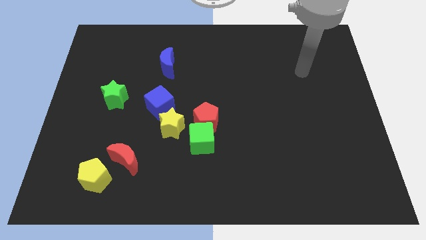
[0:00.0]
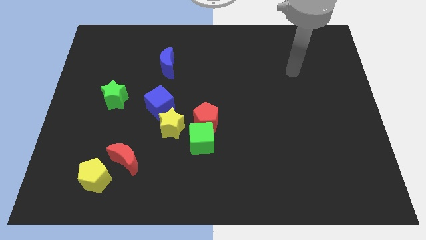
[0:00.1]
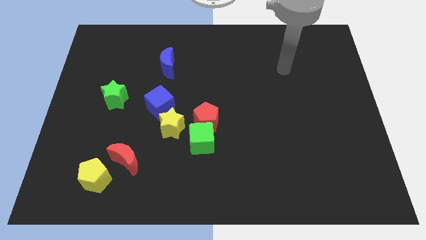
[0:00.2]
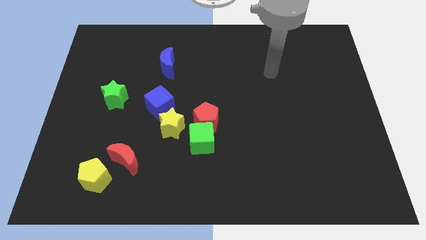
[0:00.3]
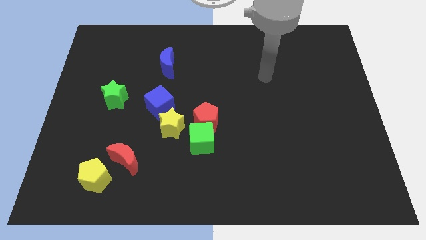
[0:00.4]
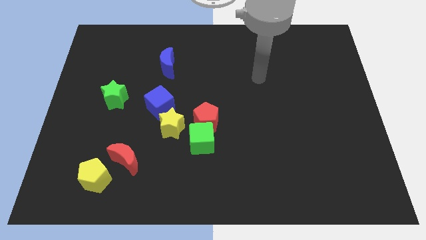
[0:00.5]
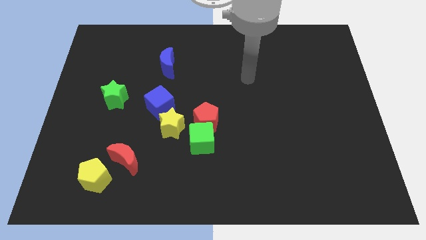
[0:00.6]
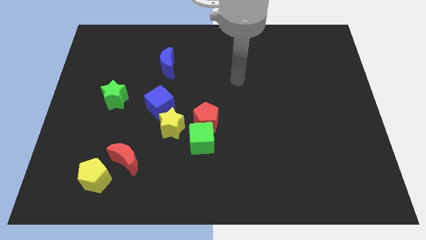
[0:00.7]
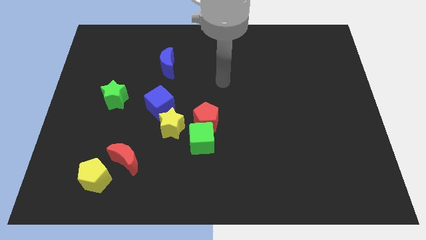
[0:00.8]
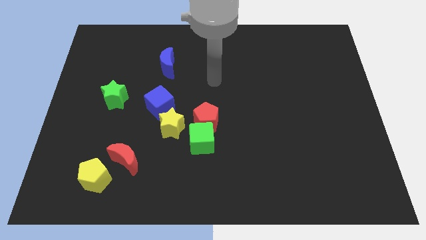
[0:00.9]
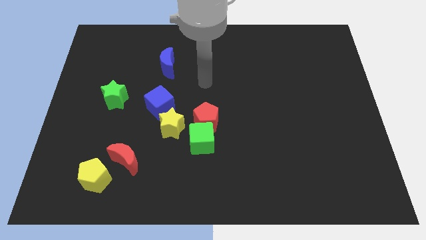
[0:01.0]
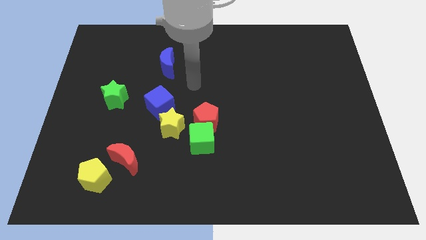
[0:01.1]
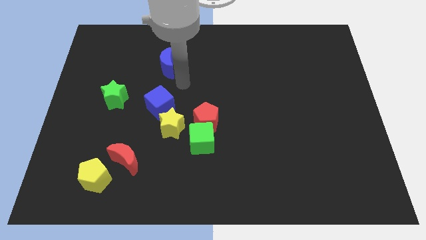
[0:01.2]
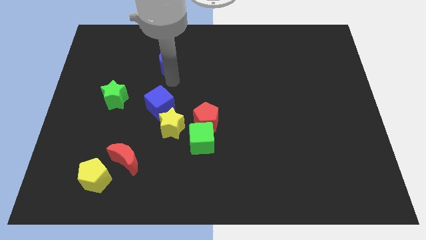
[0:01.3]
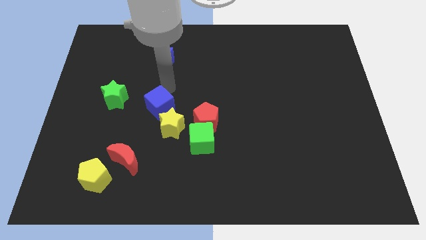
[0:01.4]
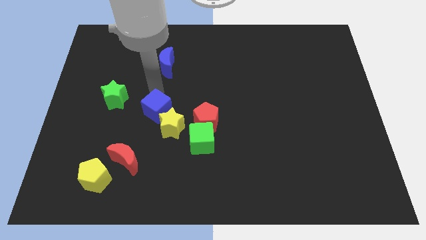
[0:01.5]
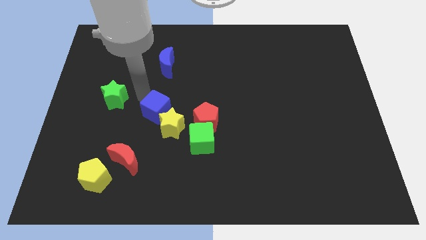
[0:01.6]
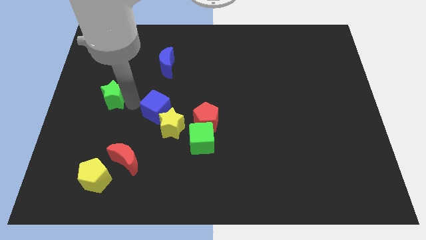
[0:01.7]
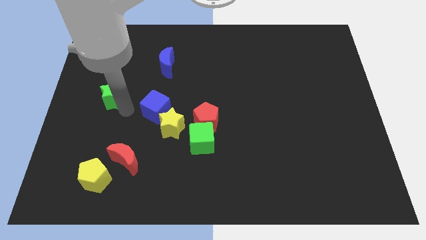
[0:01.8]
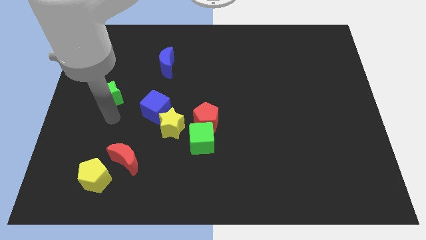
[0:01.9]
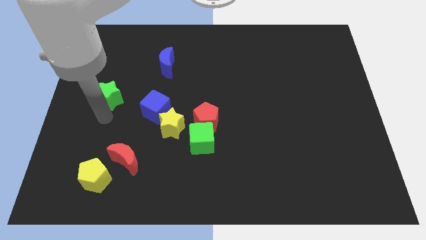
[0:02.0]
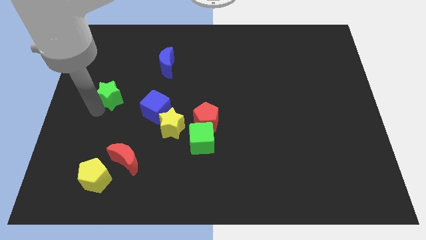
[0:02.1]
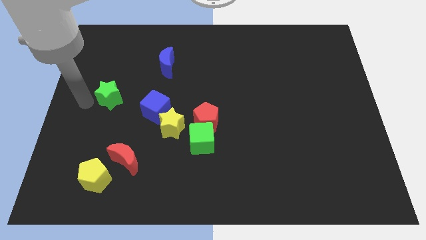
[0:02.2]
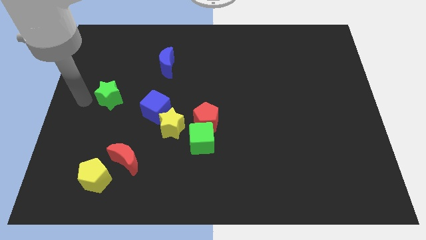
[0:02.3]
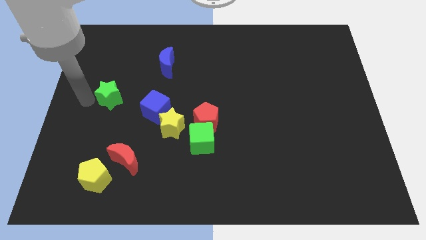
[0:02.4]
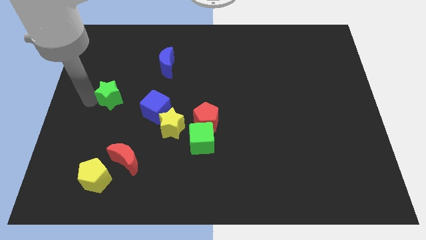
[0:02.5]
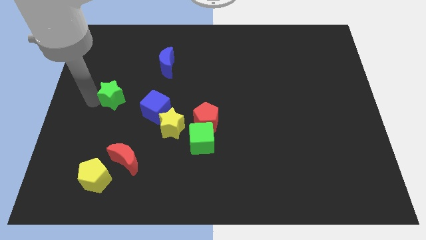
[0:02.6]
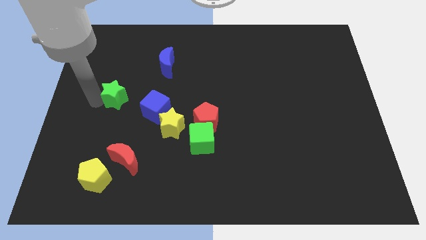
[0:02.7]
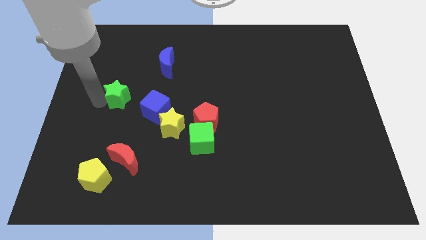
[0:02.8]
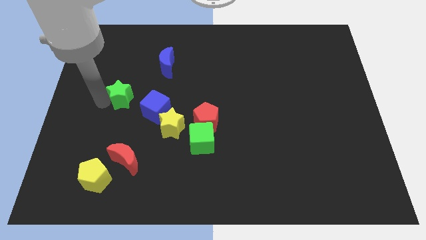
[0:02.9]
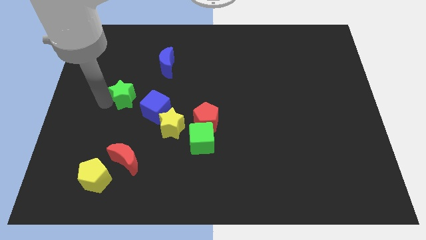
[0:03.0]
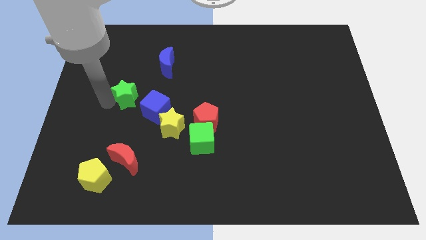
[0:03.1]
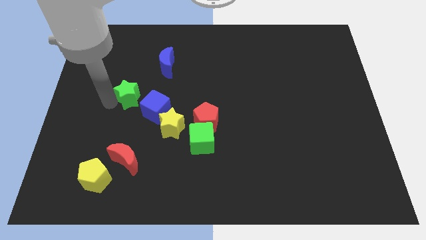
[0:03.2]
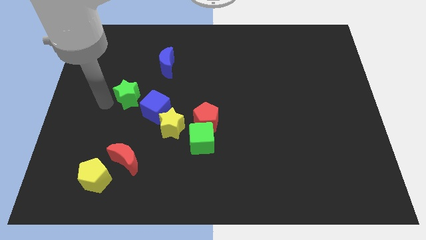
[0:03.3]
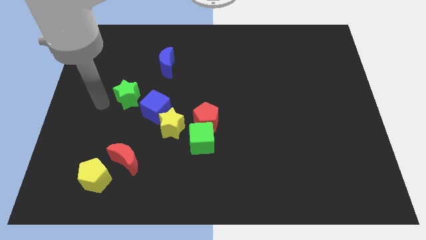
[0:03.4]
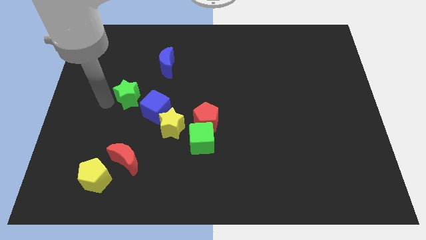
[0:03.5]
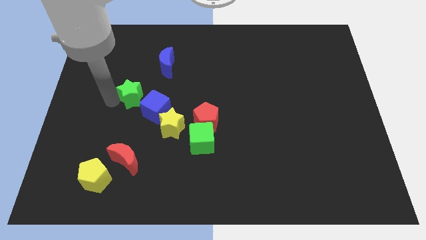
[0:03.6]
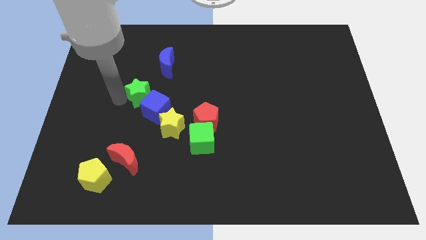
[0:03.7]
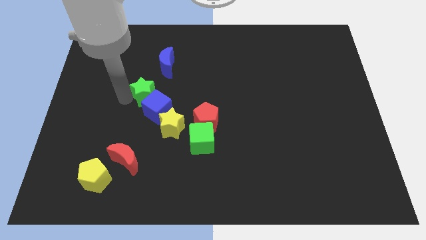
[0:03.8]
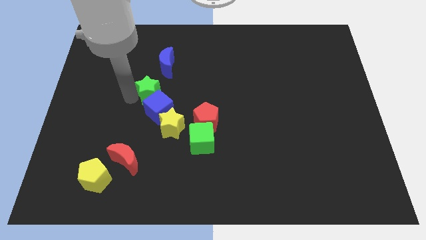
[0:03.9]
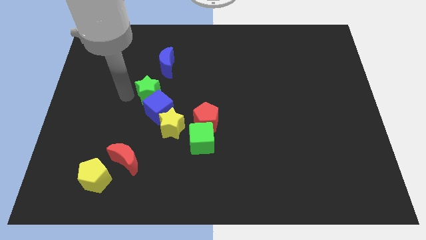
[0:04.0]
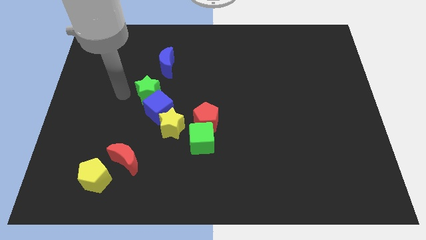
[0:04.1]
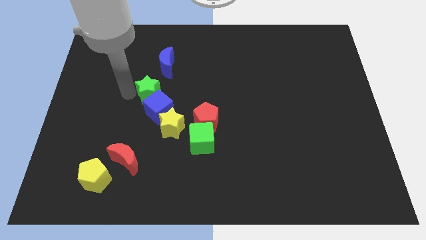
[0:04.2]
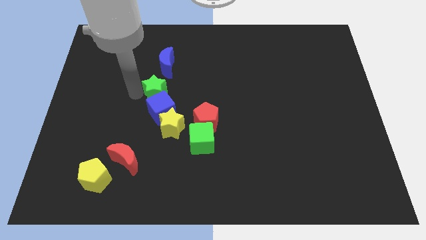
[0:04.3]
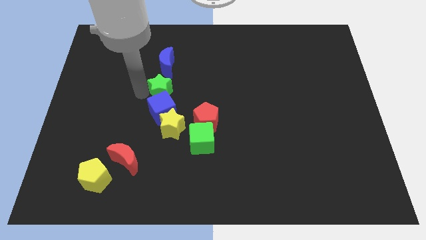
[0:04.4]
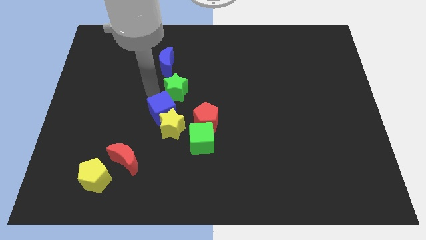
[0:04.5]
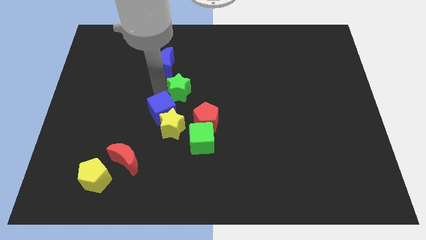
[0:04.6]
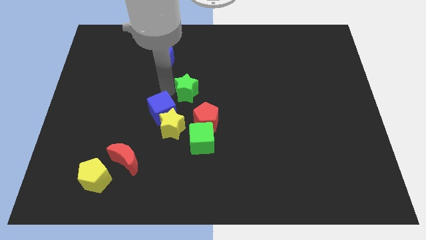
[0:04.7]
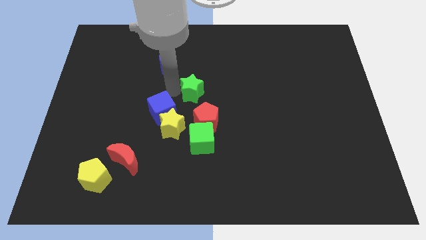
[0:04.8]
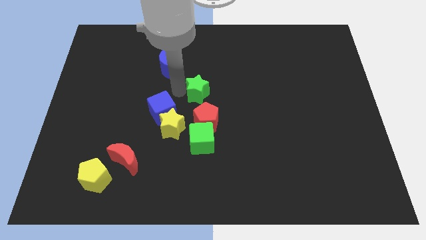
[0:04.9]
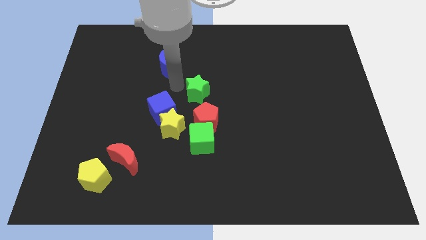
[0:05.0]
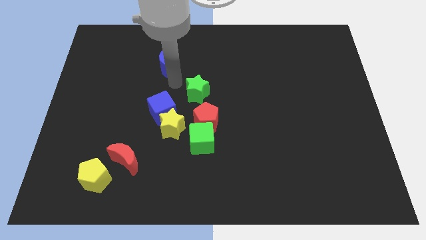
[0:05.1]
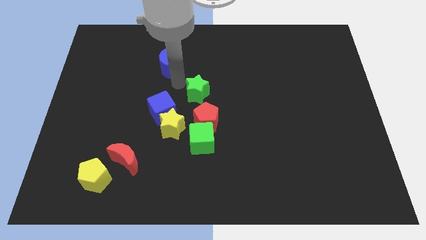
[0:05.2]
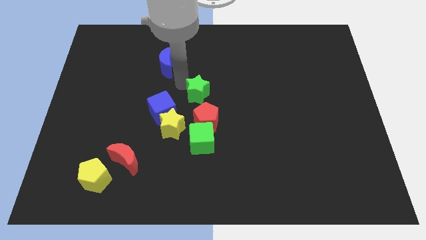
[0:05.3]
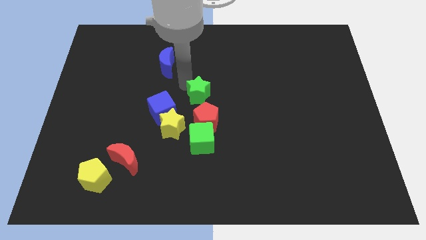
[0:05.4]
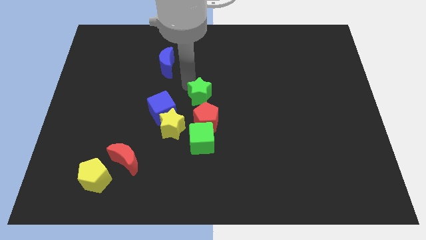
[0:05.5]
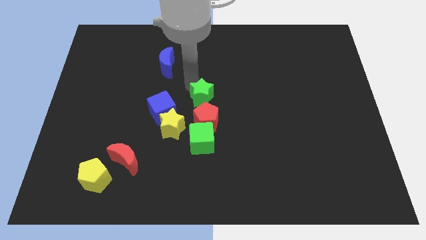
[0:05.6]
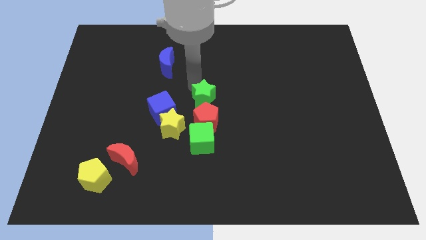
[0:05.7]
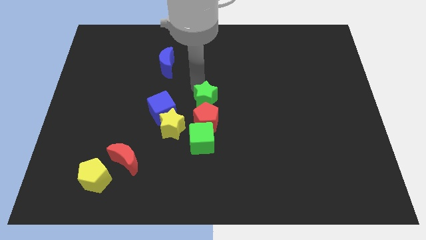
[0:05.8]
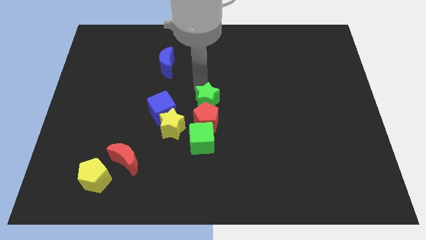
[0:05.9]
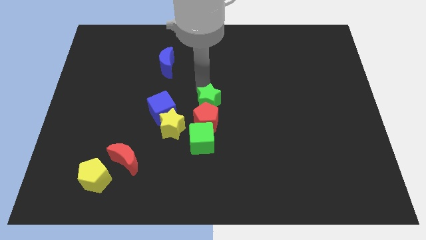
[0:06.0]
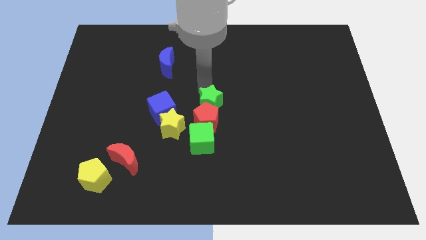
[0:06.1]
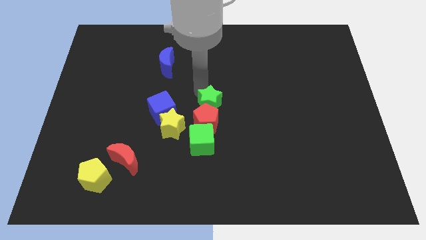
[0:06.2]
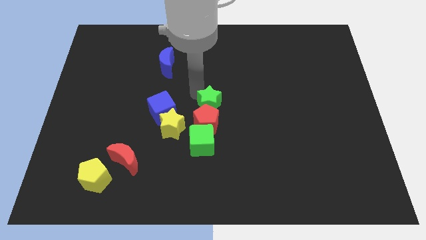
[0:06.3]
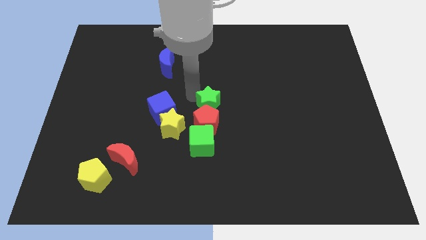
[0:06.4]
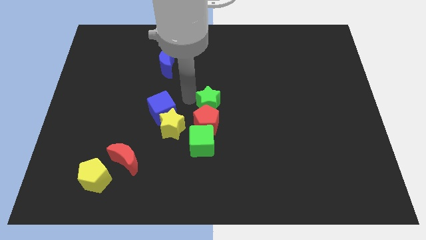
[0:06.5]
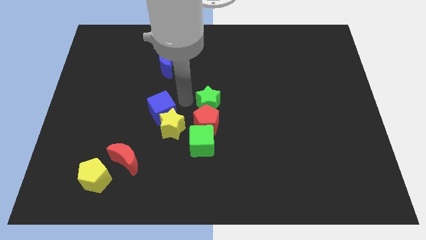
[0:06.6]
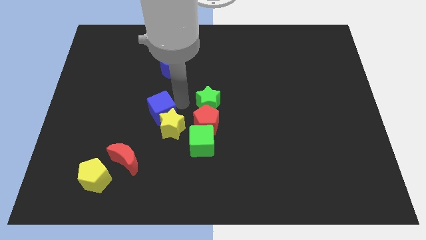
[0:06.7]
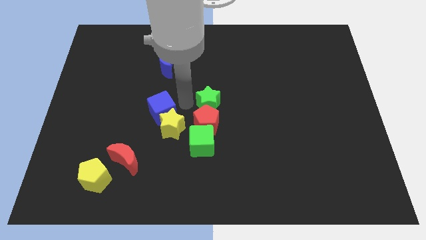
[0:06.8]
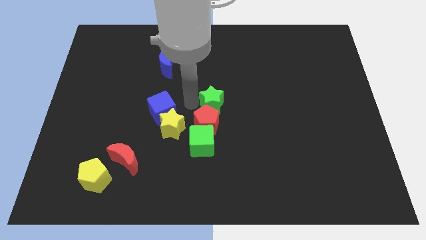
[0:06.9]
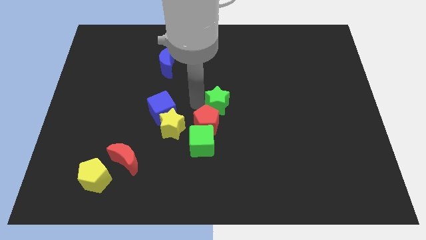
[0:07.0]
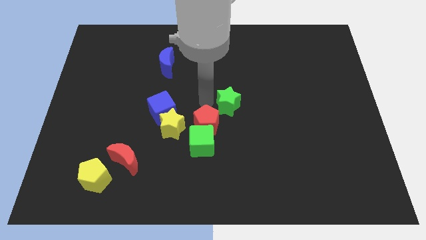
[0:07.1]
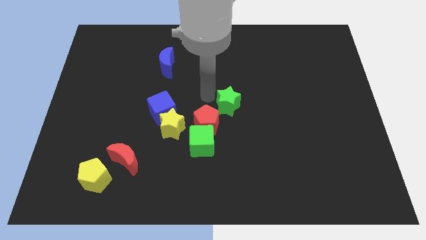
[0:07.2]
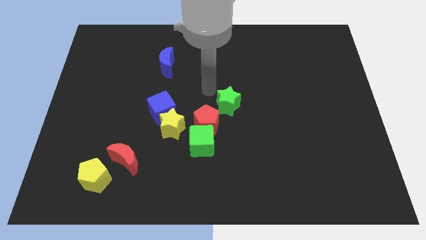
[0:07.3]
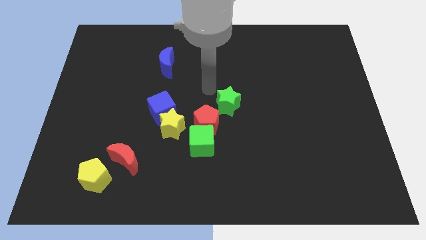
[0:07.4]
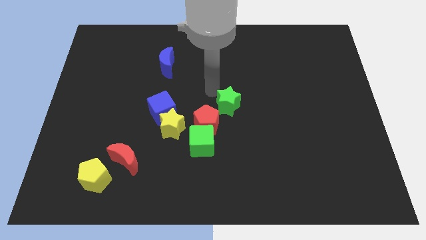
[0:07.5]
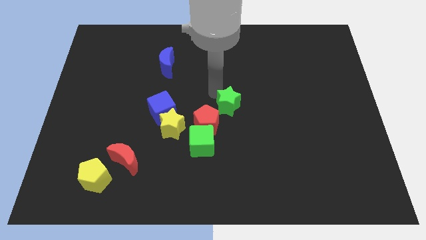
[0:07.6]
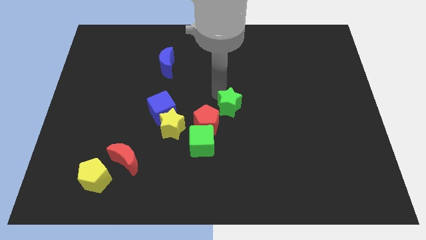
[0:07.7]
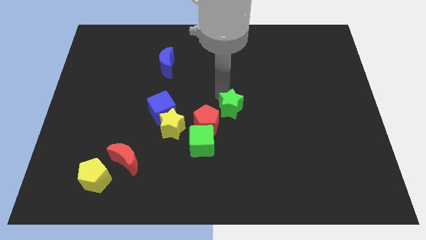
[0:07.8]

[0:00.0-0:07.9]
push the green star just right of the red pentagon
